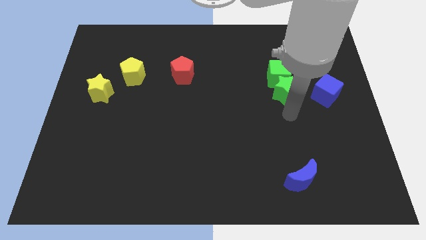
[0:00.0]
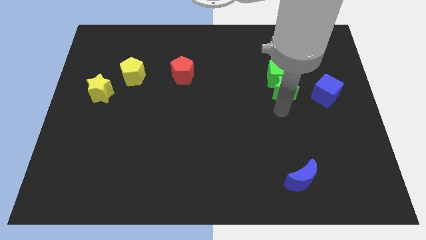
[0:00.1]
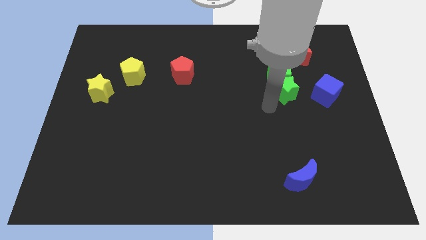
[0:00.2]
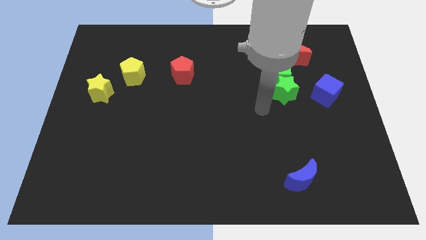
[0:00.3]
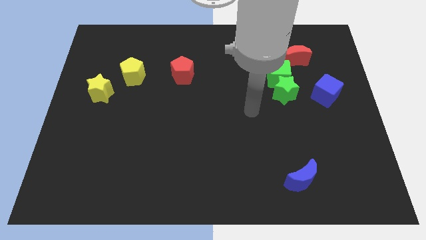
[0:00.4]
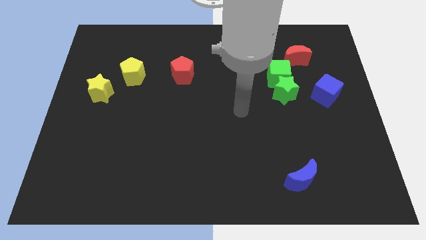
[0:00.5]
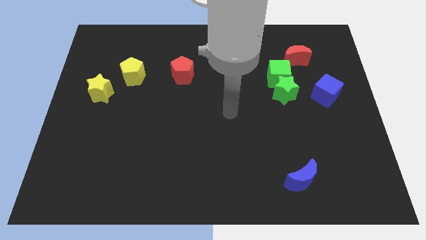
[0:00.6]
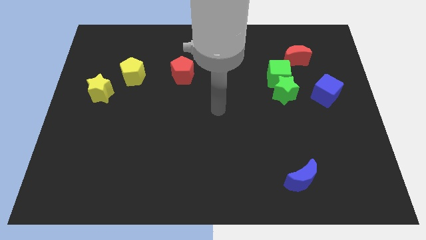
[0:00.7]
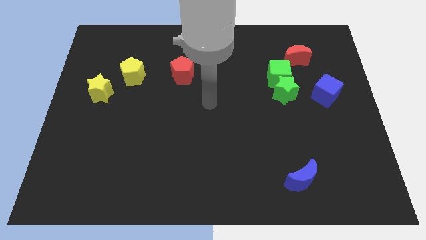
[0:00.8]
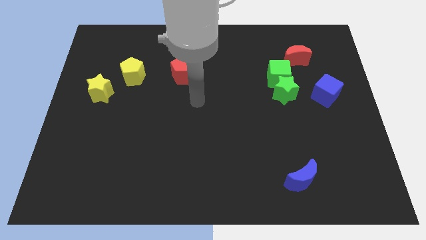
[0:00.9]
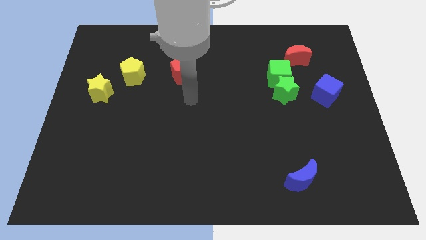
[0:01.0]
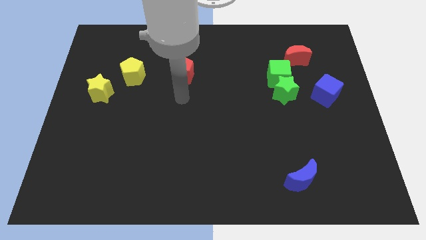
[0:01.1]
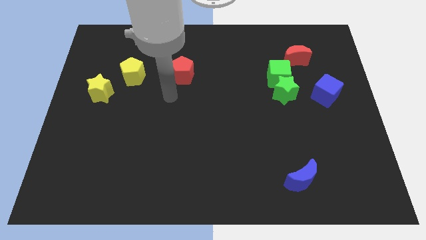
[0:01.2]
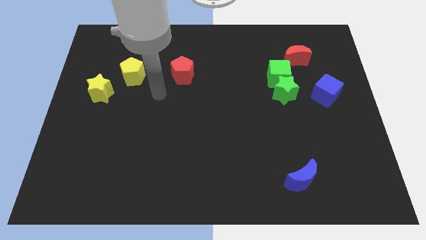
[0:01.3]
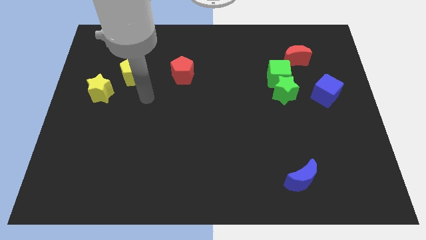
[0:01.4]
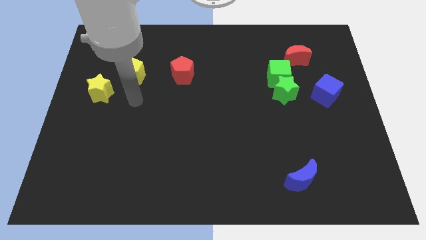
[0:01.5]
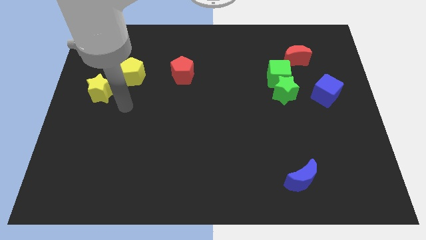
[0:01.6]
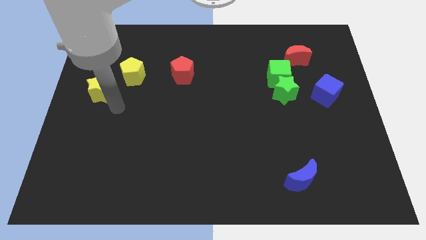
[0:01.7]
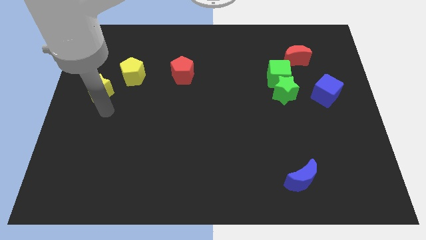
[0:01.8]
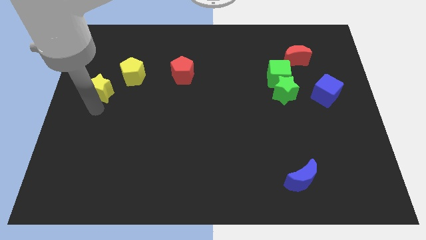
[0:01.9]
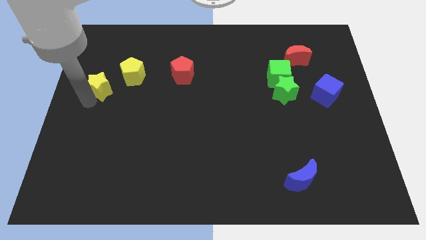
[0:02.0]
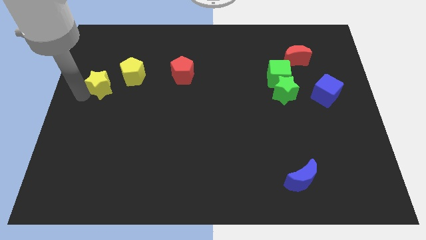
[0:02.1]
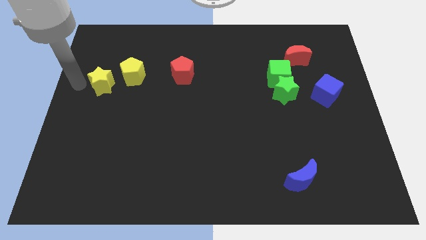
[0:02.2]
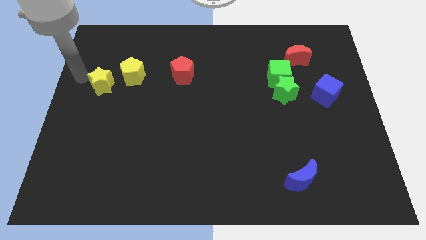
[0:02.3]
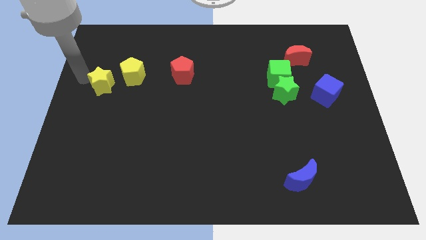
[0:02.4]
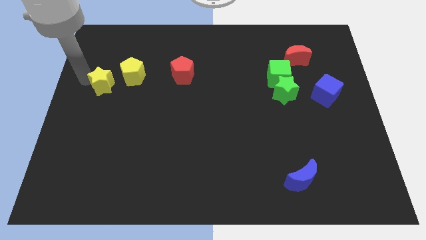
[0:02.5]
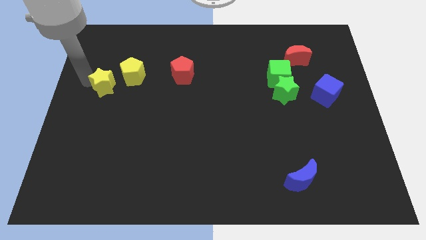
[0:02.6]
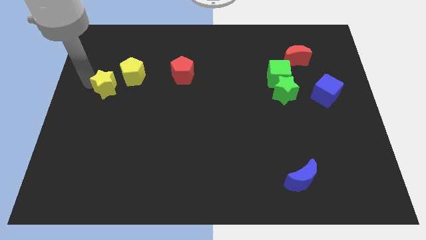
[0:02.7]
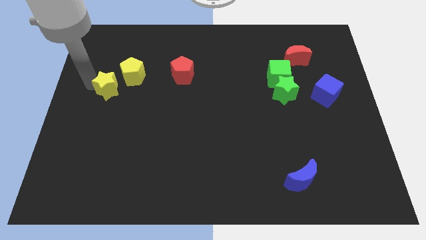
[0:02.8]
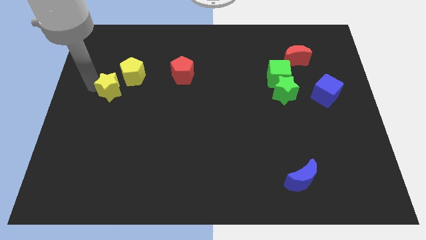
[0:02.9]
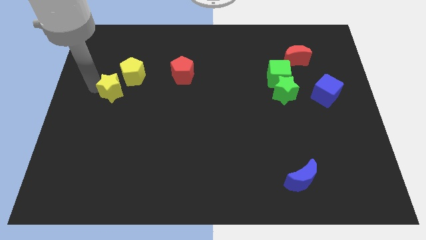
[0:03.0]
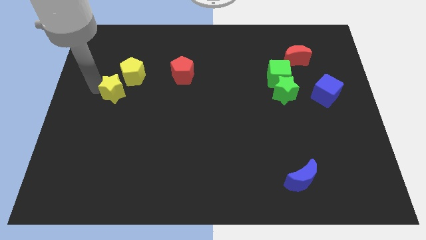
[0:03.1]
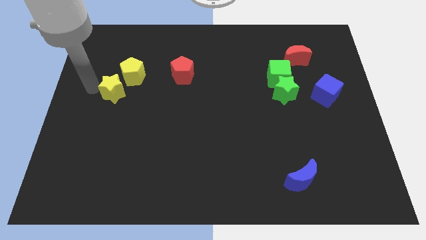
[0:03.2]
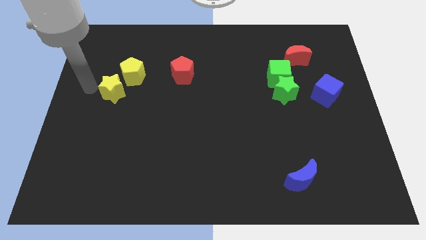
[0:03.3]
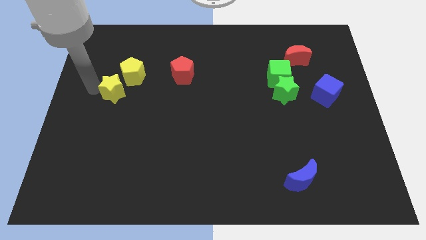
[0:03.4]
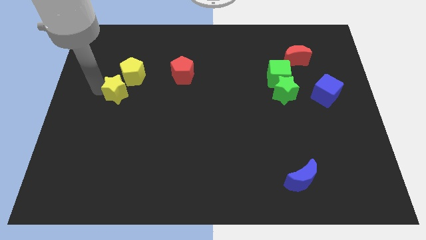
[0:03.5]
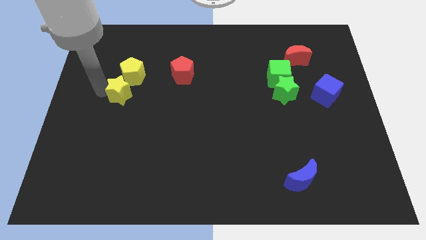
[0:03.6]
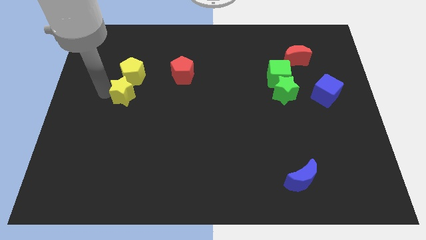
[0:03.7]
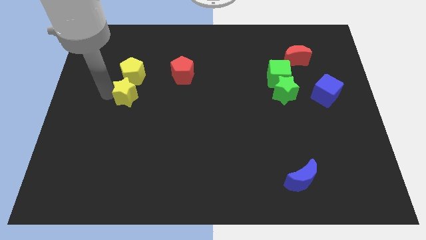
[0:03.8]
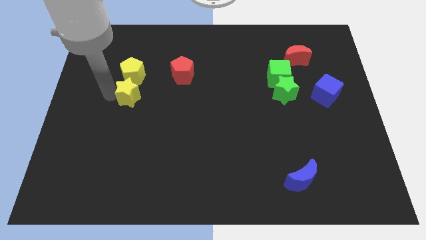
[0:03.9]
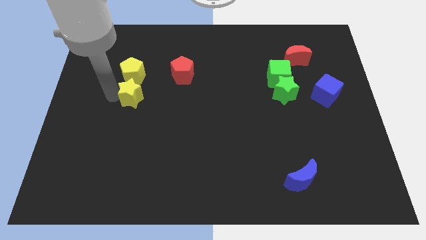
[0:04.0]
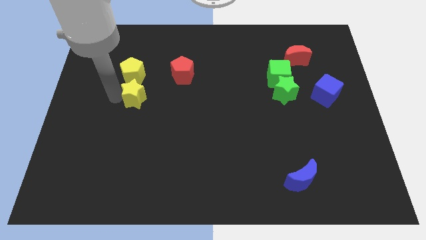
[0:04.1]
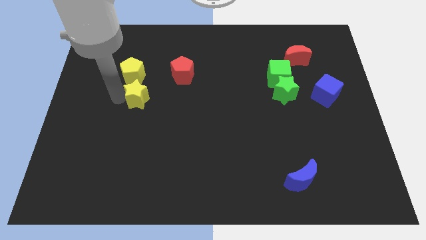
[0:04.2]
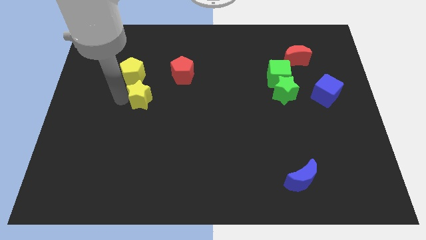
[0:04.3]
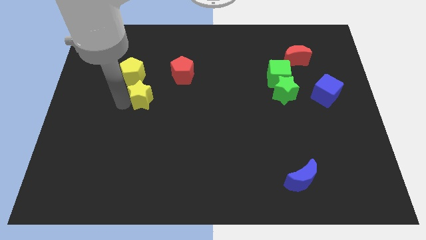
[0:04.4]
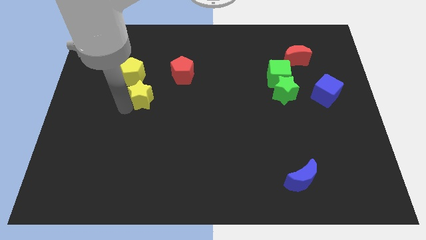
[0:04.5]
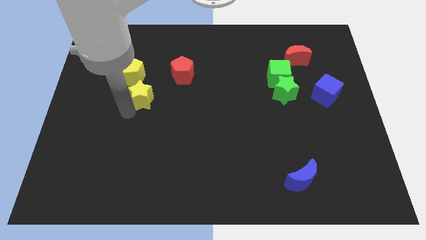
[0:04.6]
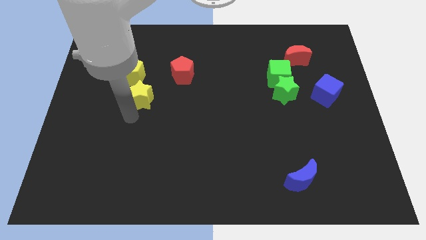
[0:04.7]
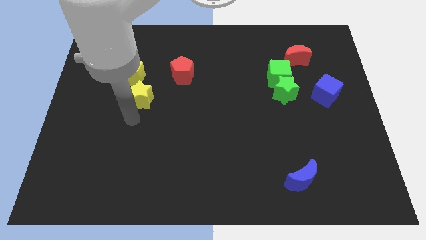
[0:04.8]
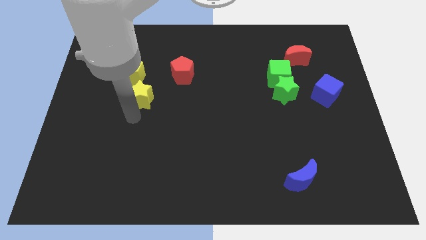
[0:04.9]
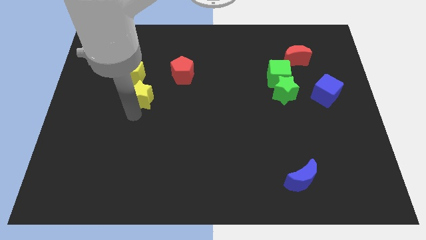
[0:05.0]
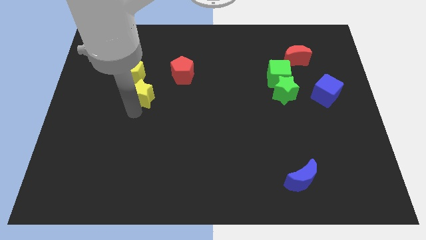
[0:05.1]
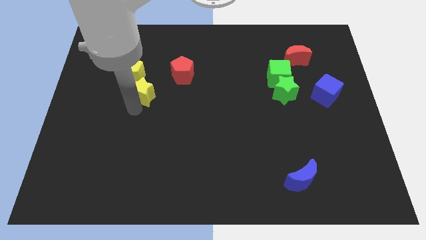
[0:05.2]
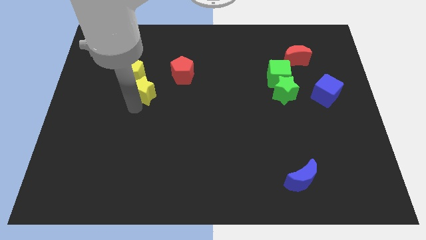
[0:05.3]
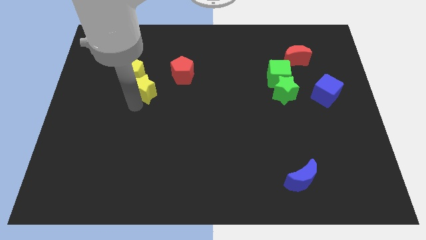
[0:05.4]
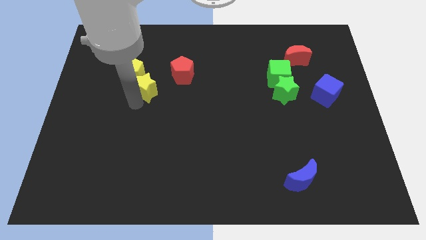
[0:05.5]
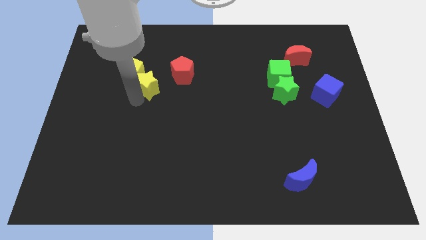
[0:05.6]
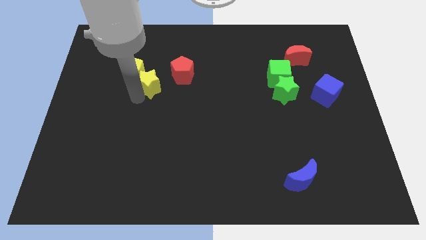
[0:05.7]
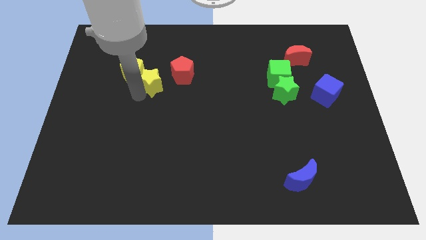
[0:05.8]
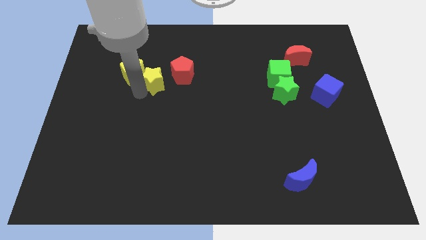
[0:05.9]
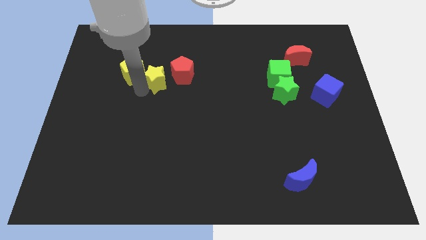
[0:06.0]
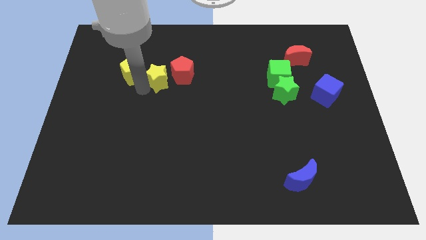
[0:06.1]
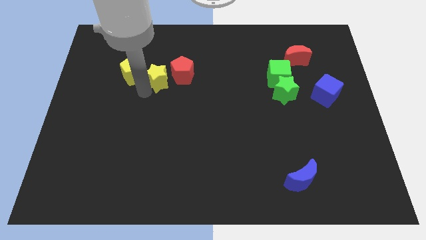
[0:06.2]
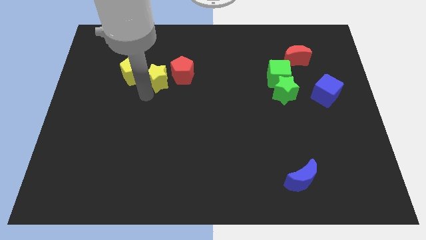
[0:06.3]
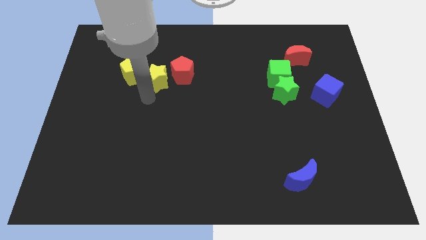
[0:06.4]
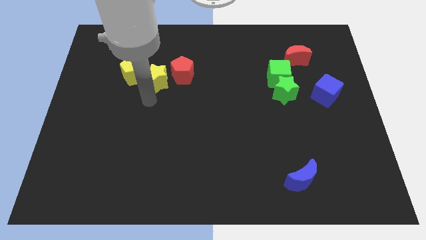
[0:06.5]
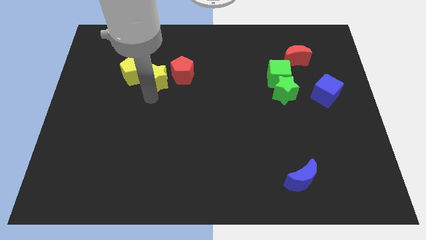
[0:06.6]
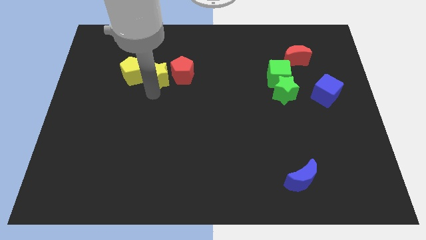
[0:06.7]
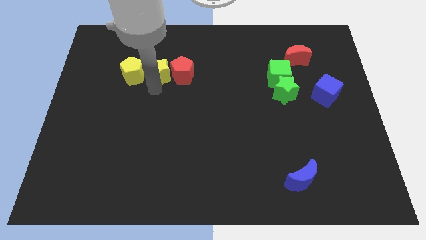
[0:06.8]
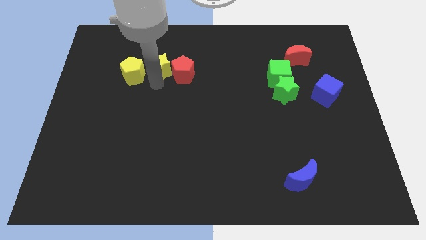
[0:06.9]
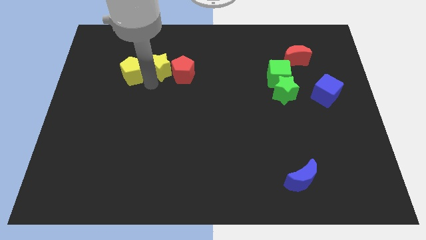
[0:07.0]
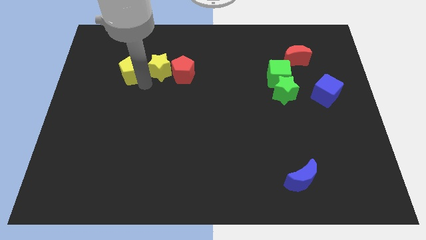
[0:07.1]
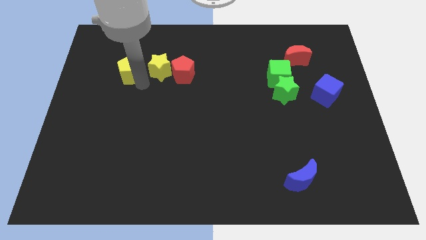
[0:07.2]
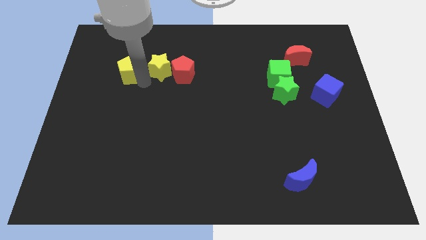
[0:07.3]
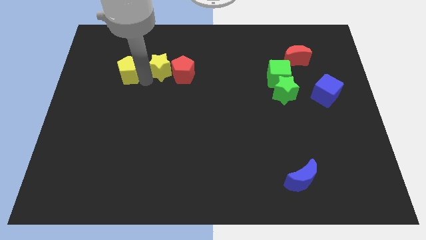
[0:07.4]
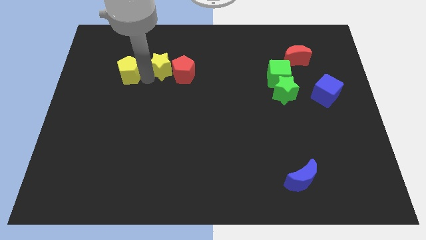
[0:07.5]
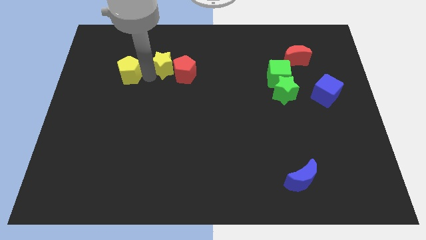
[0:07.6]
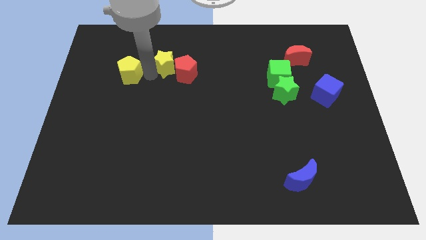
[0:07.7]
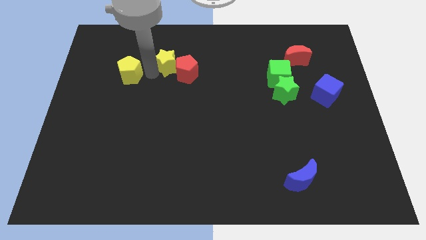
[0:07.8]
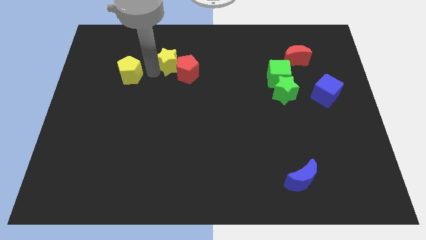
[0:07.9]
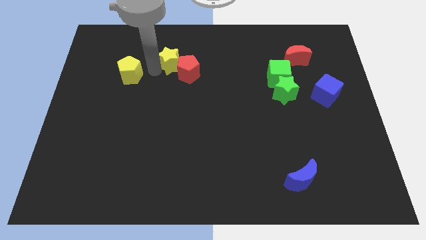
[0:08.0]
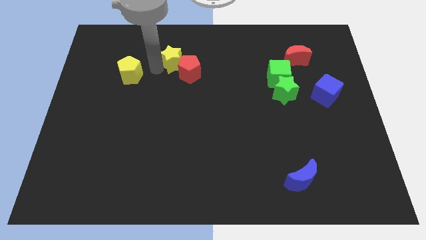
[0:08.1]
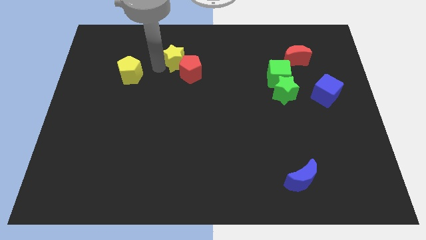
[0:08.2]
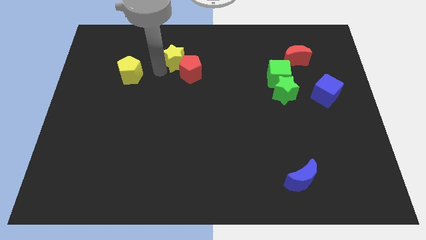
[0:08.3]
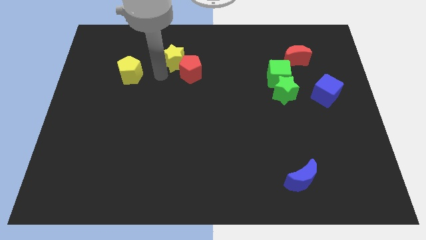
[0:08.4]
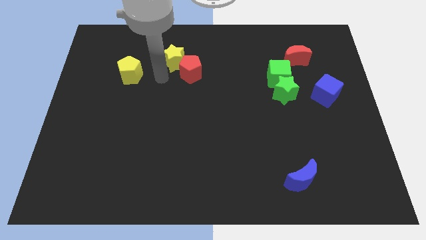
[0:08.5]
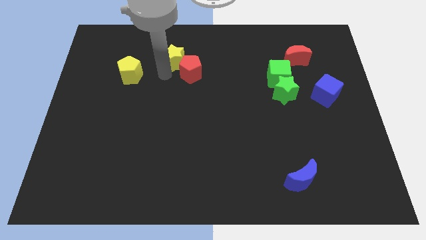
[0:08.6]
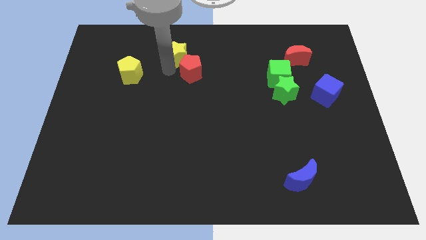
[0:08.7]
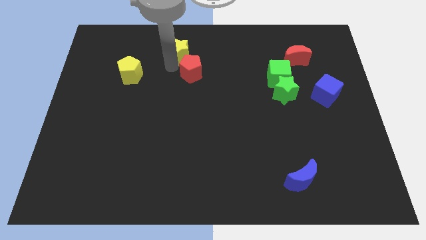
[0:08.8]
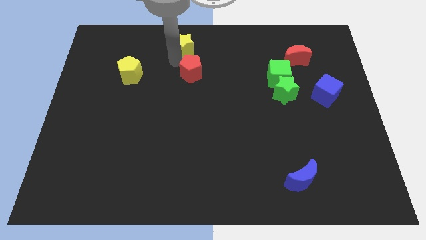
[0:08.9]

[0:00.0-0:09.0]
push the yellow star to the towards your base
